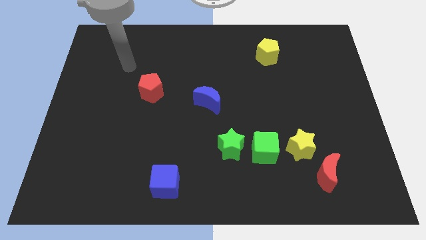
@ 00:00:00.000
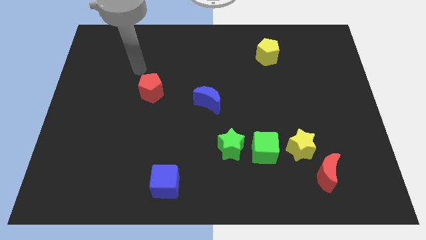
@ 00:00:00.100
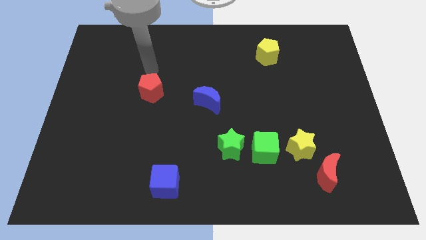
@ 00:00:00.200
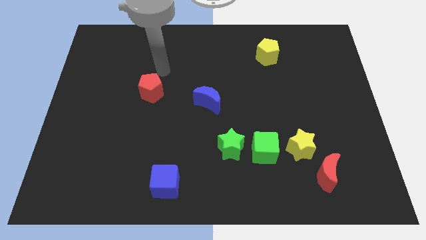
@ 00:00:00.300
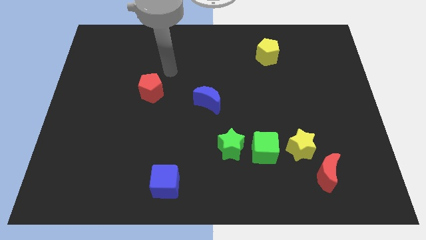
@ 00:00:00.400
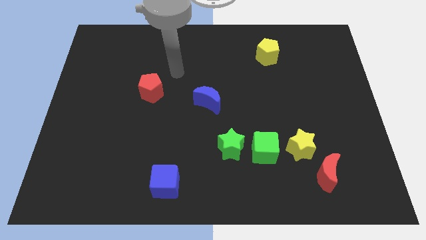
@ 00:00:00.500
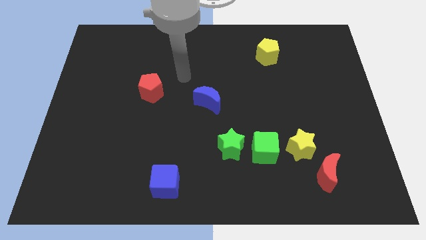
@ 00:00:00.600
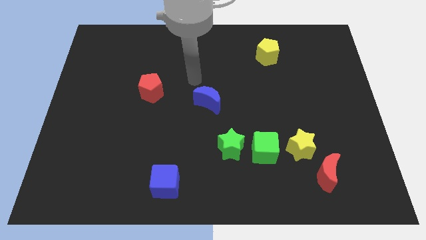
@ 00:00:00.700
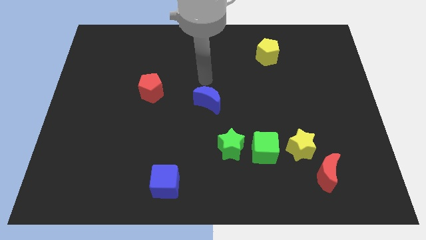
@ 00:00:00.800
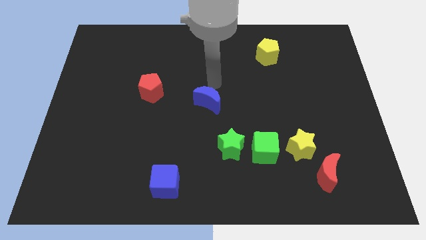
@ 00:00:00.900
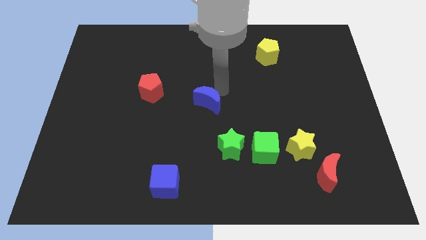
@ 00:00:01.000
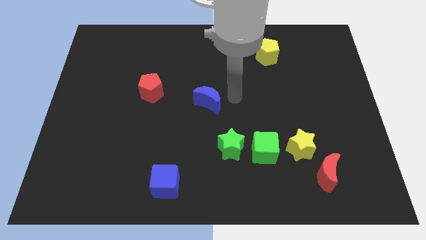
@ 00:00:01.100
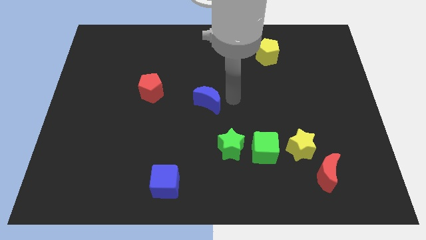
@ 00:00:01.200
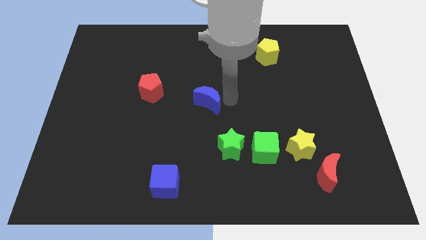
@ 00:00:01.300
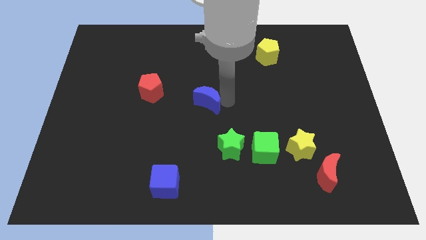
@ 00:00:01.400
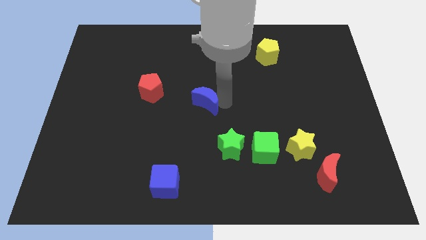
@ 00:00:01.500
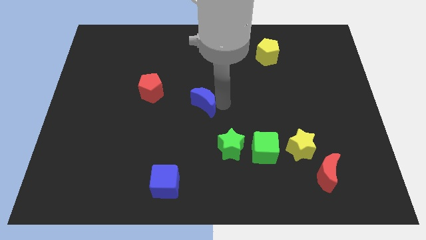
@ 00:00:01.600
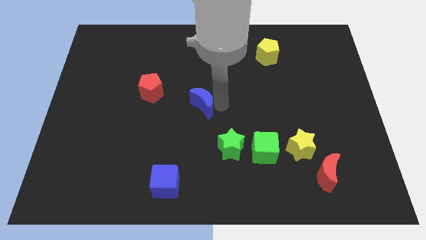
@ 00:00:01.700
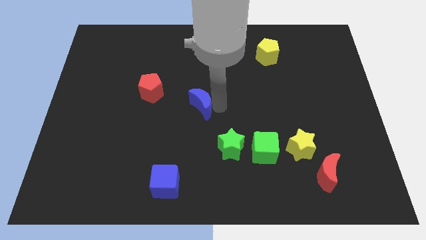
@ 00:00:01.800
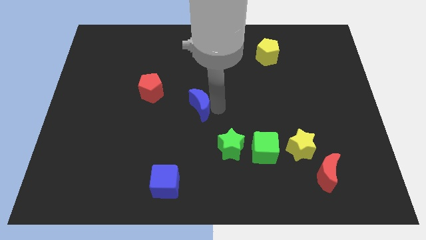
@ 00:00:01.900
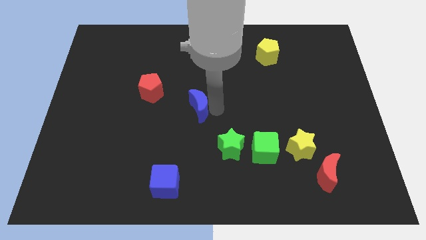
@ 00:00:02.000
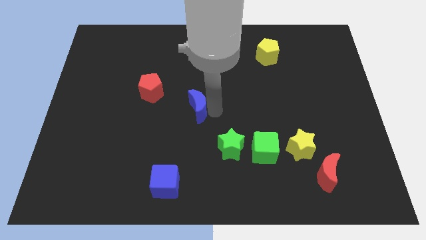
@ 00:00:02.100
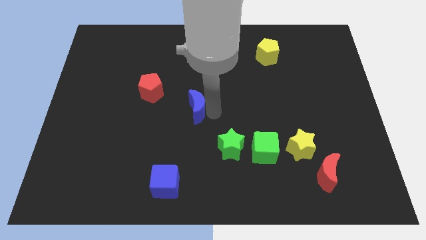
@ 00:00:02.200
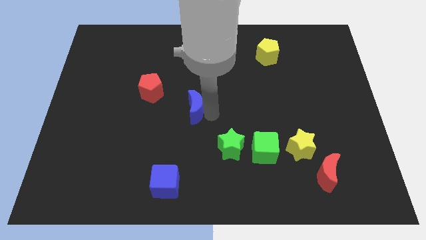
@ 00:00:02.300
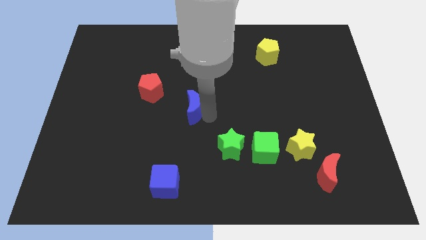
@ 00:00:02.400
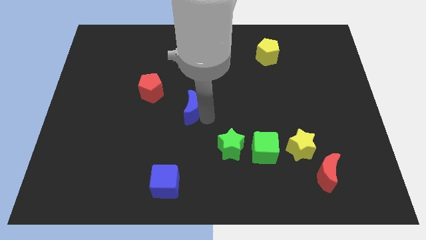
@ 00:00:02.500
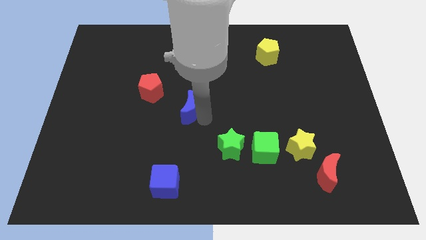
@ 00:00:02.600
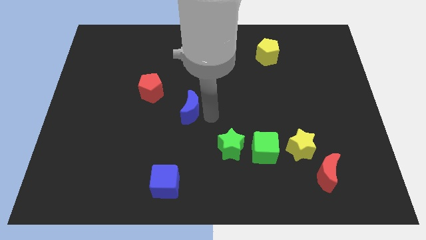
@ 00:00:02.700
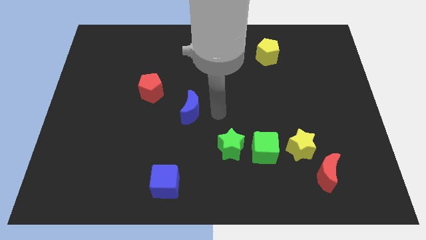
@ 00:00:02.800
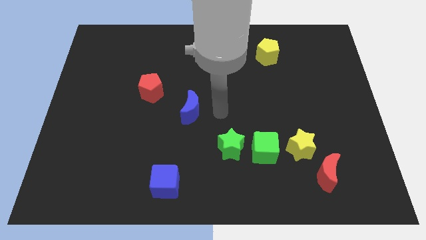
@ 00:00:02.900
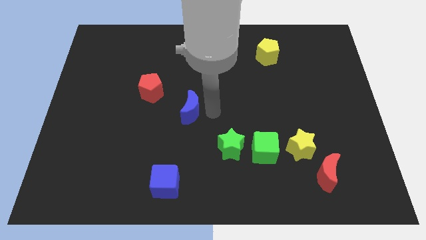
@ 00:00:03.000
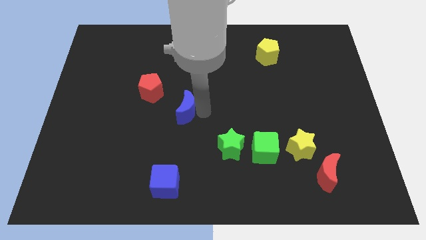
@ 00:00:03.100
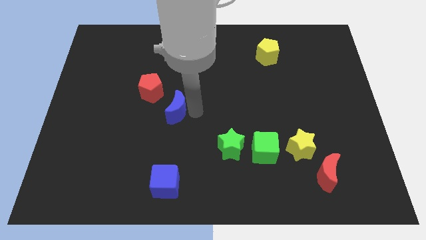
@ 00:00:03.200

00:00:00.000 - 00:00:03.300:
slide the blue moon a little left

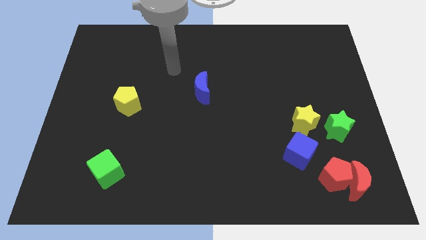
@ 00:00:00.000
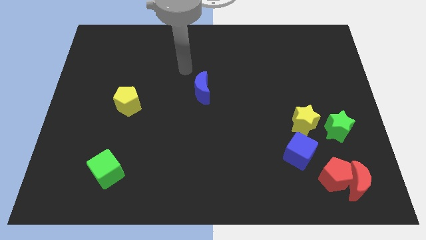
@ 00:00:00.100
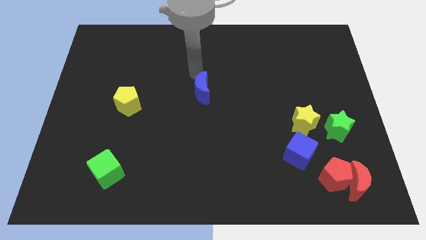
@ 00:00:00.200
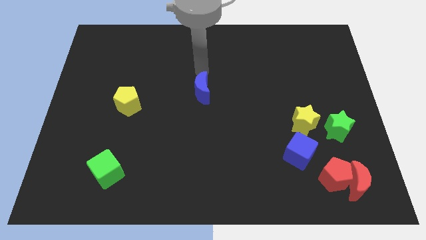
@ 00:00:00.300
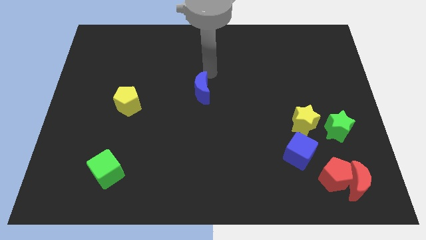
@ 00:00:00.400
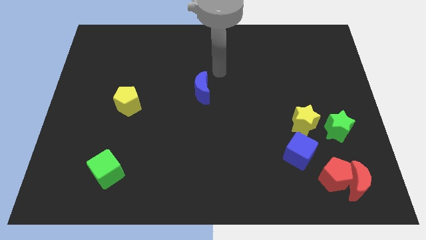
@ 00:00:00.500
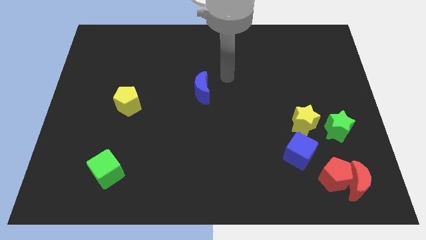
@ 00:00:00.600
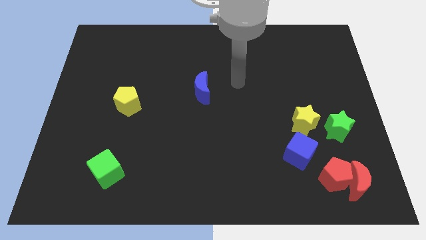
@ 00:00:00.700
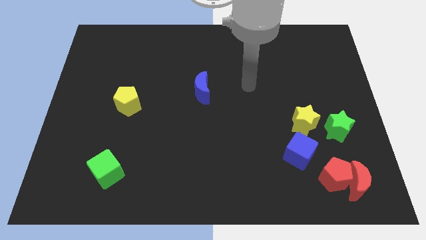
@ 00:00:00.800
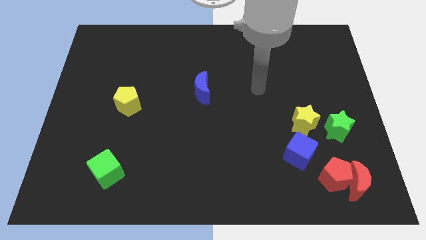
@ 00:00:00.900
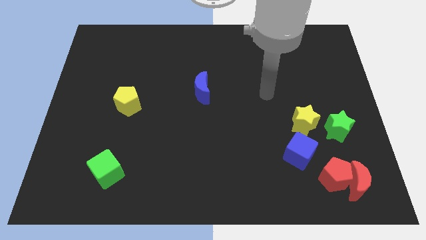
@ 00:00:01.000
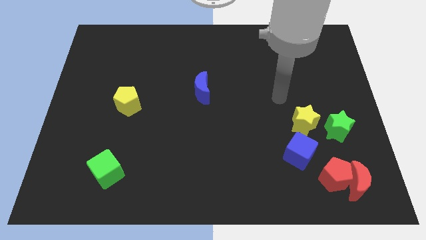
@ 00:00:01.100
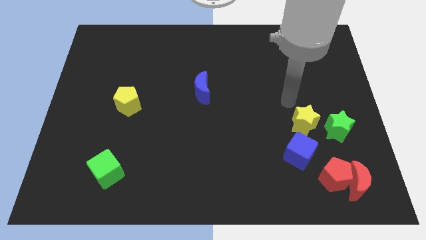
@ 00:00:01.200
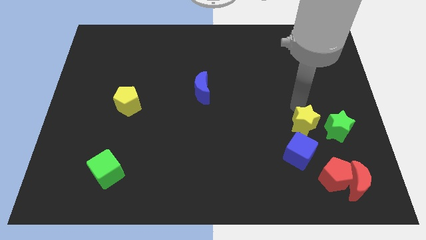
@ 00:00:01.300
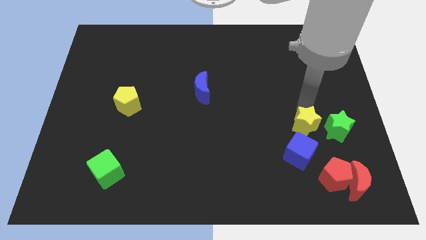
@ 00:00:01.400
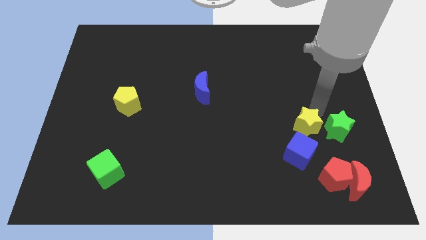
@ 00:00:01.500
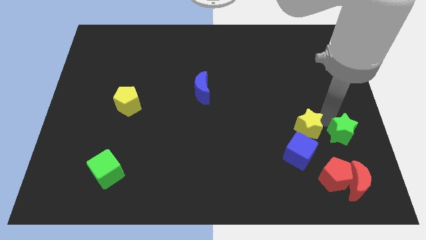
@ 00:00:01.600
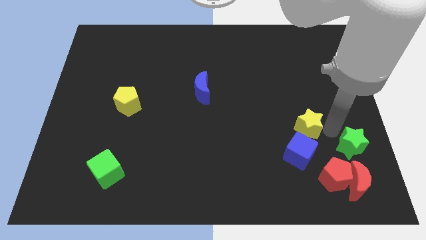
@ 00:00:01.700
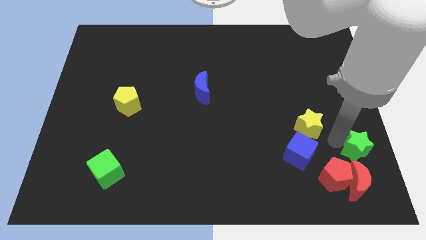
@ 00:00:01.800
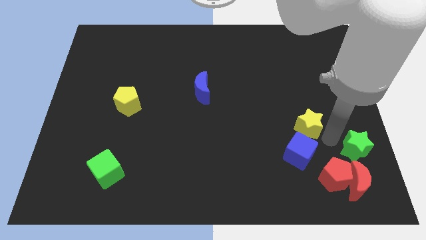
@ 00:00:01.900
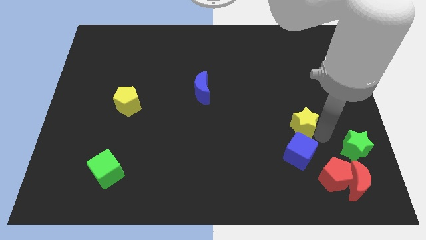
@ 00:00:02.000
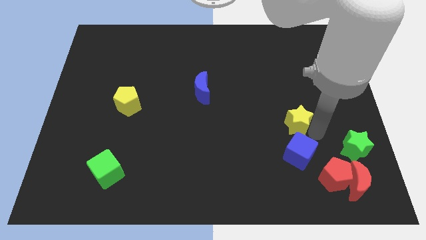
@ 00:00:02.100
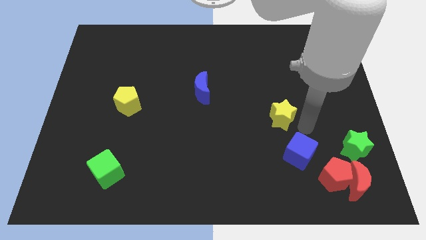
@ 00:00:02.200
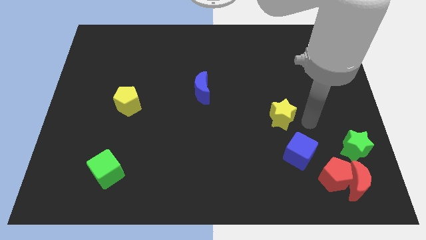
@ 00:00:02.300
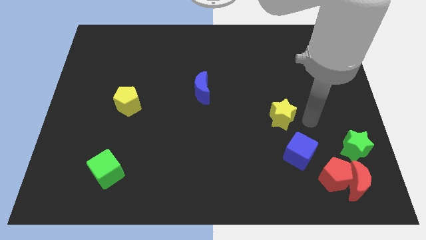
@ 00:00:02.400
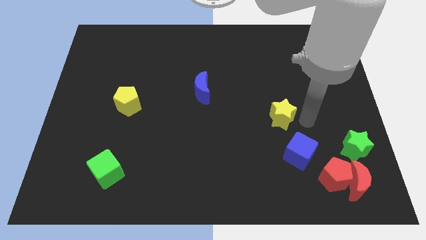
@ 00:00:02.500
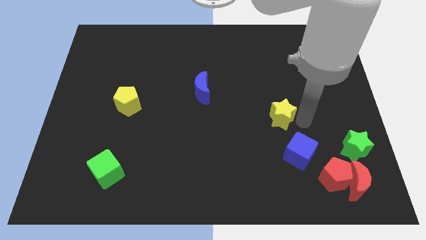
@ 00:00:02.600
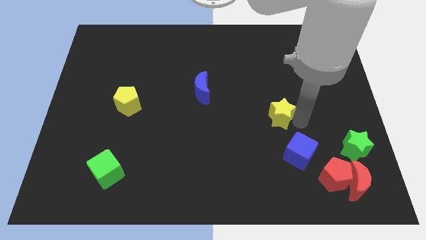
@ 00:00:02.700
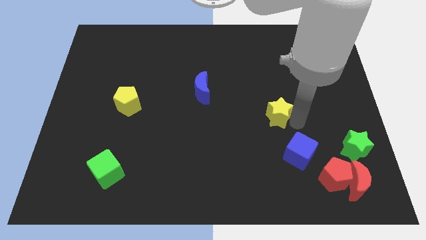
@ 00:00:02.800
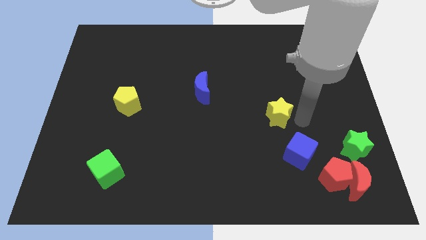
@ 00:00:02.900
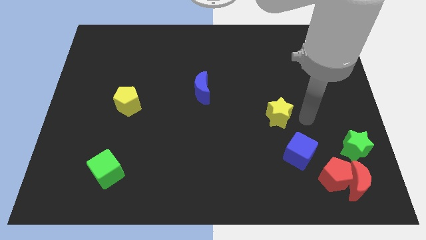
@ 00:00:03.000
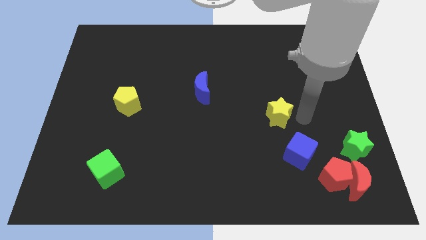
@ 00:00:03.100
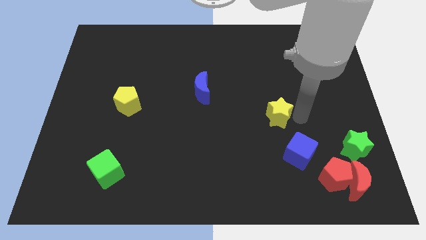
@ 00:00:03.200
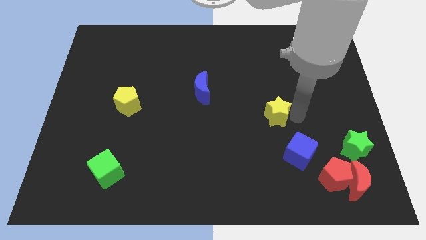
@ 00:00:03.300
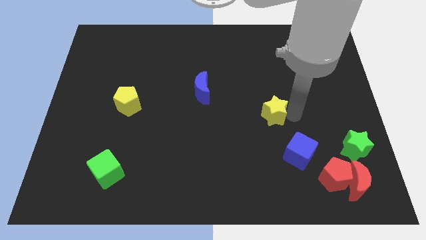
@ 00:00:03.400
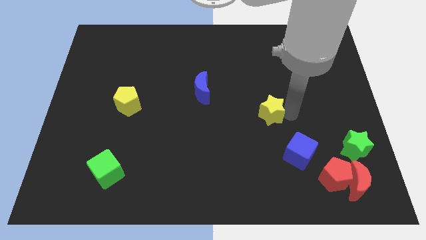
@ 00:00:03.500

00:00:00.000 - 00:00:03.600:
slightly push the yellow star to the left

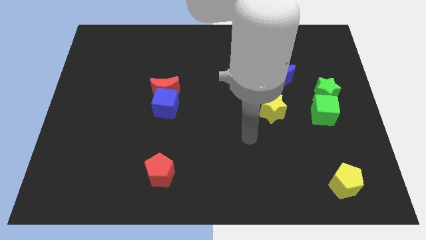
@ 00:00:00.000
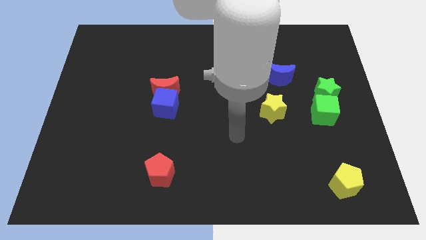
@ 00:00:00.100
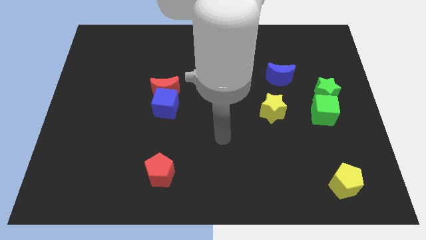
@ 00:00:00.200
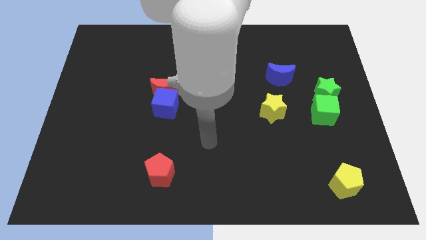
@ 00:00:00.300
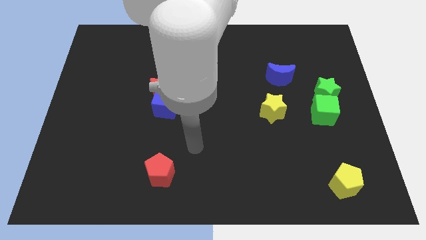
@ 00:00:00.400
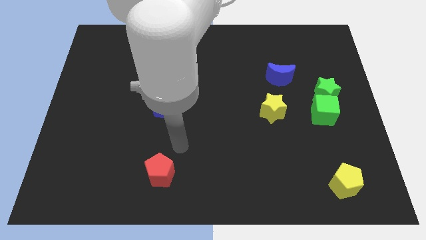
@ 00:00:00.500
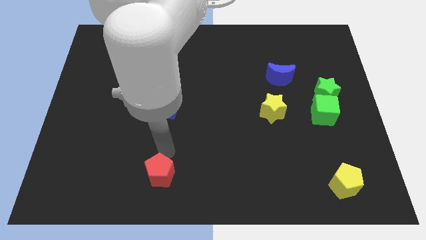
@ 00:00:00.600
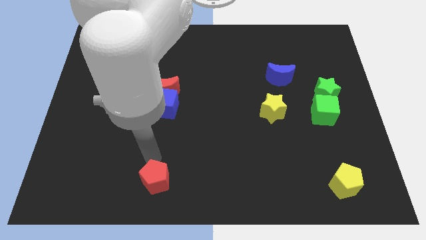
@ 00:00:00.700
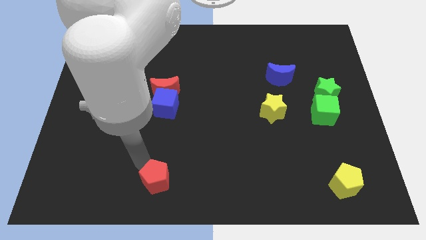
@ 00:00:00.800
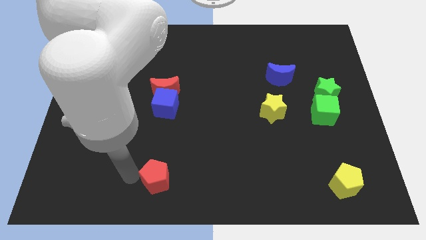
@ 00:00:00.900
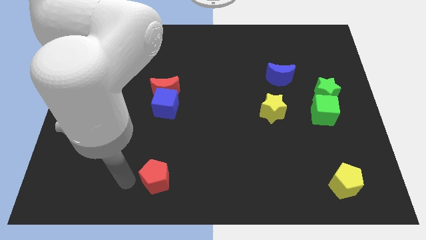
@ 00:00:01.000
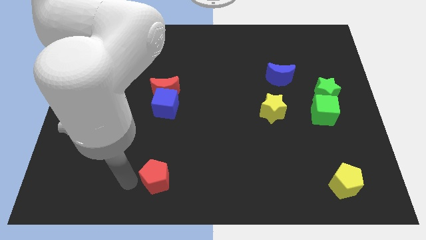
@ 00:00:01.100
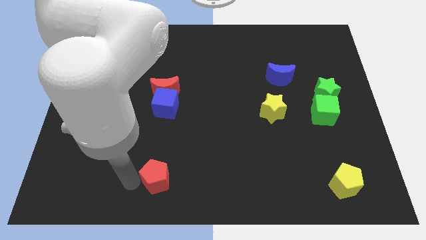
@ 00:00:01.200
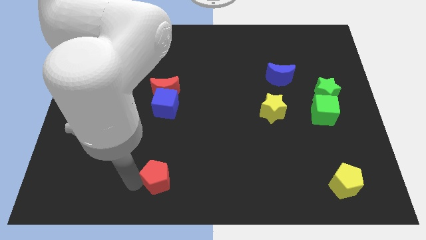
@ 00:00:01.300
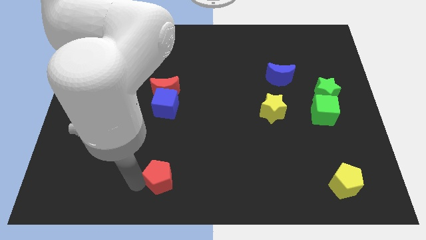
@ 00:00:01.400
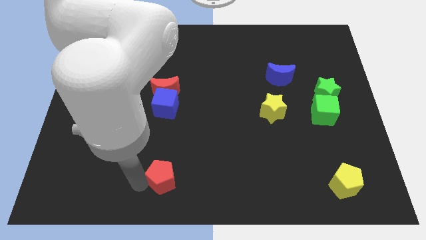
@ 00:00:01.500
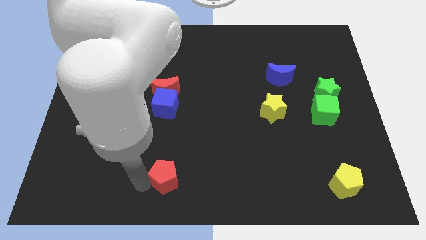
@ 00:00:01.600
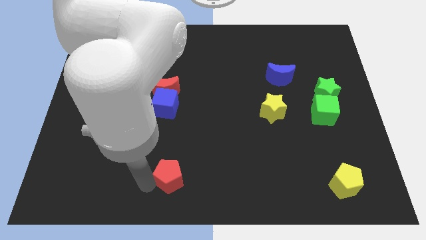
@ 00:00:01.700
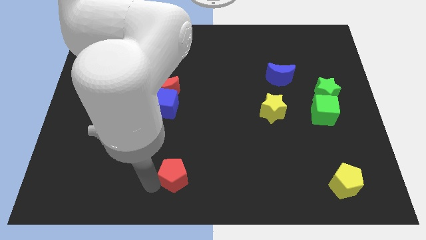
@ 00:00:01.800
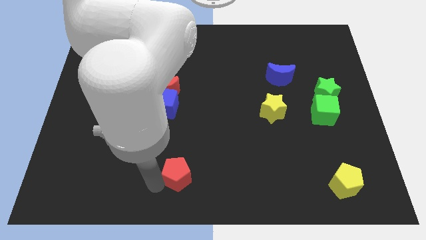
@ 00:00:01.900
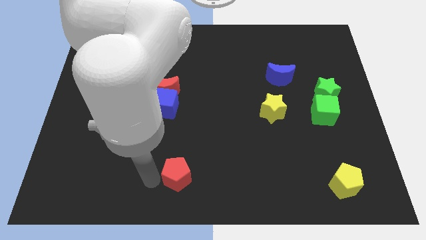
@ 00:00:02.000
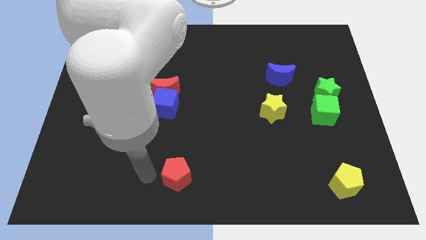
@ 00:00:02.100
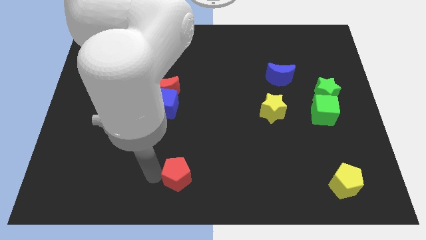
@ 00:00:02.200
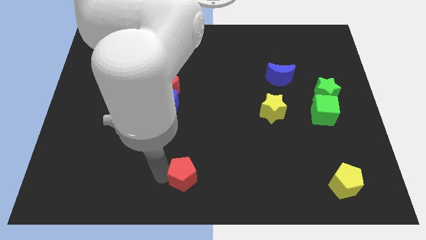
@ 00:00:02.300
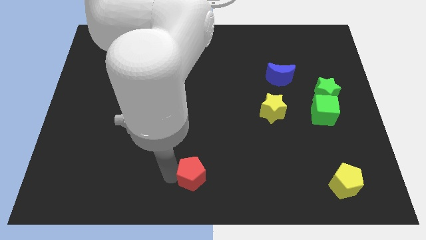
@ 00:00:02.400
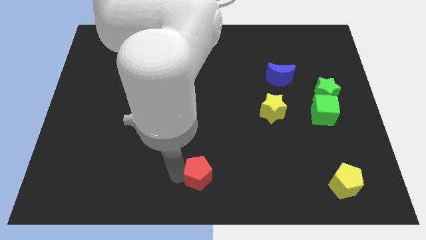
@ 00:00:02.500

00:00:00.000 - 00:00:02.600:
push the red pentagon right a little
